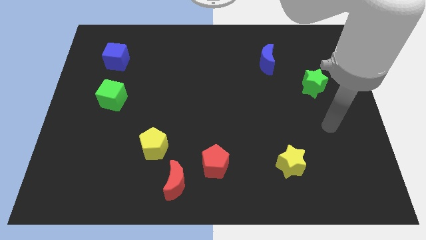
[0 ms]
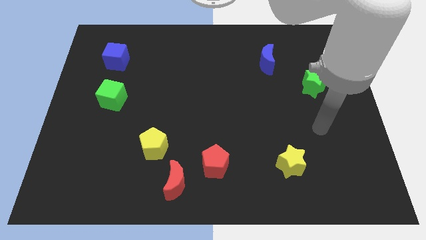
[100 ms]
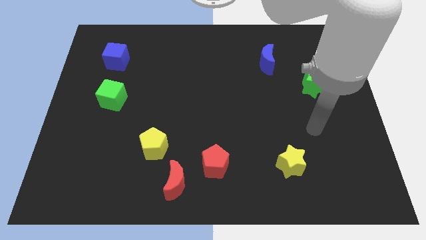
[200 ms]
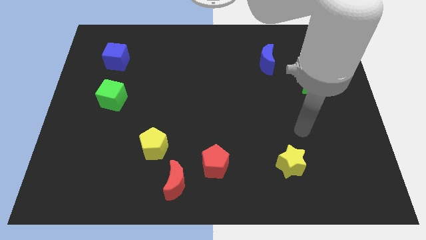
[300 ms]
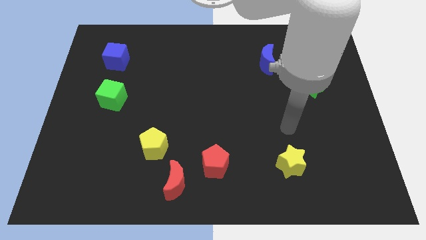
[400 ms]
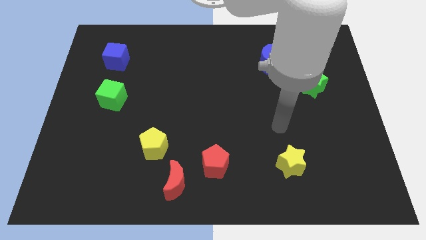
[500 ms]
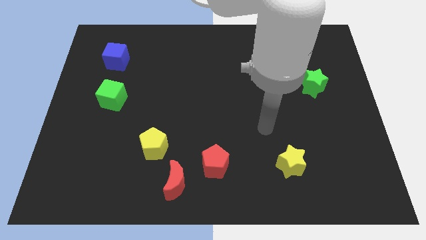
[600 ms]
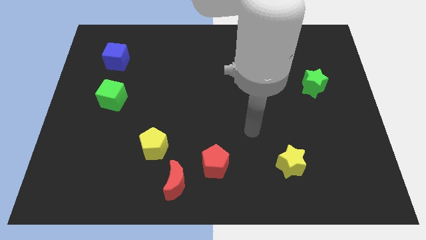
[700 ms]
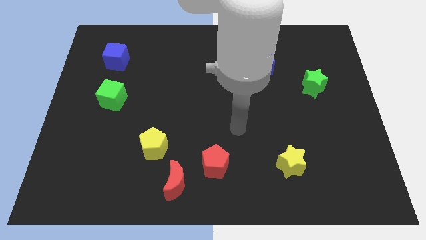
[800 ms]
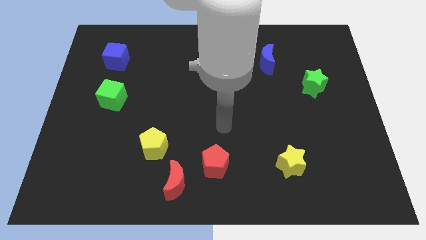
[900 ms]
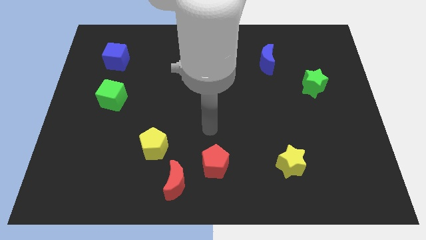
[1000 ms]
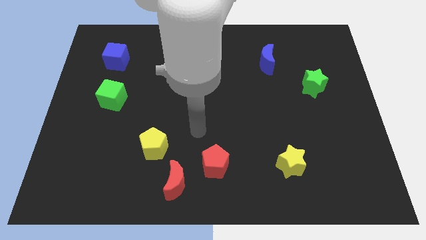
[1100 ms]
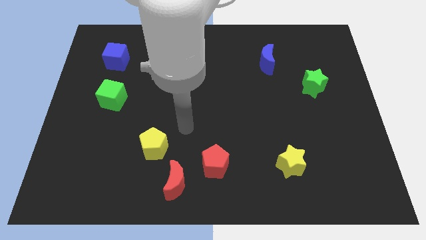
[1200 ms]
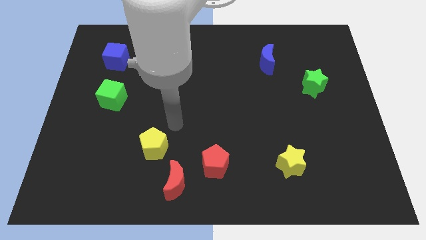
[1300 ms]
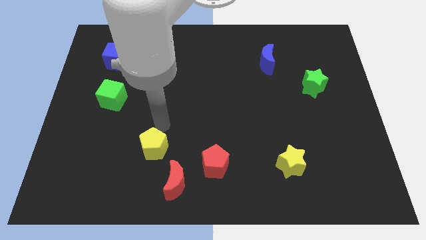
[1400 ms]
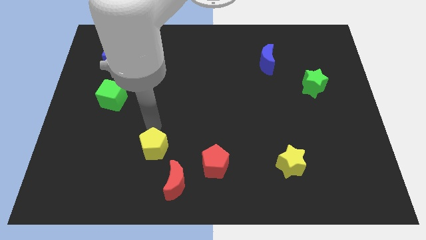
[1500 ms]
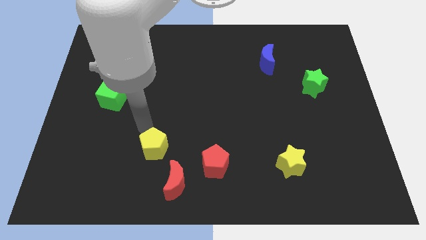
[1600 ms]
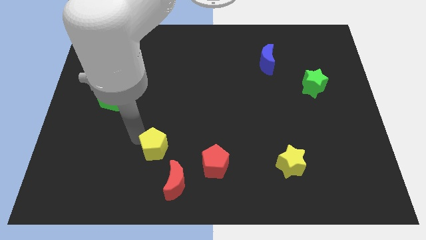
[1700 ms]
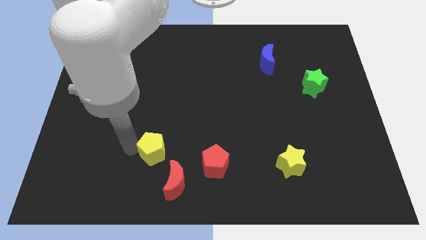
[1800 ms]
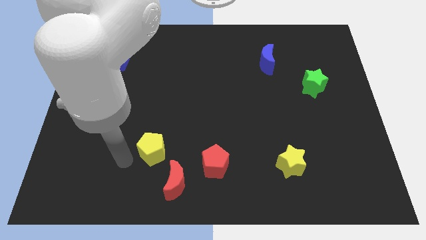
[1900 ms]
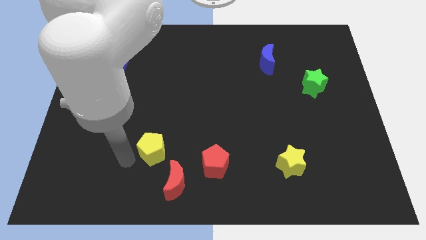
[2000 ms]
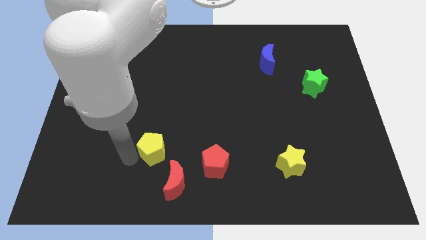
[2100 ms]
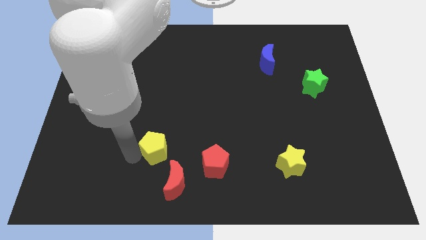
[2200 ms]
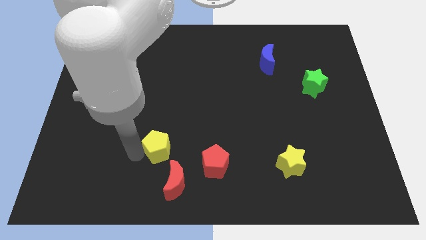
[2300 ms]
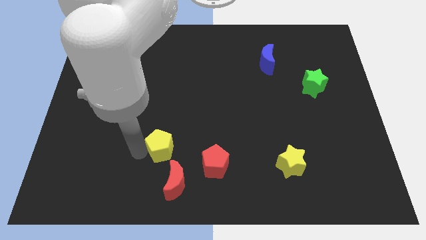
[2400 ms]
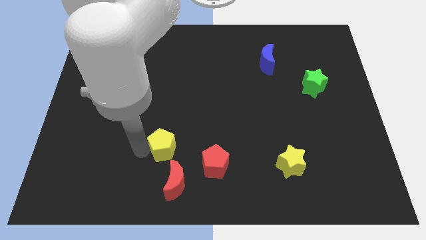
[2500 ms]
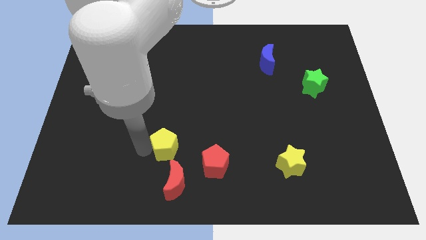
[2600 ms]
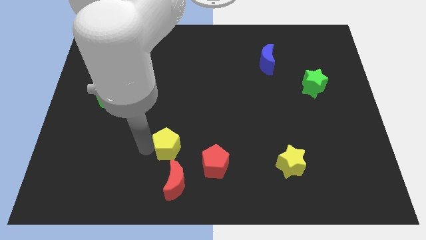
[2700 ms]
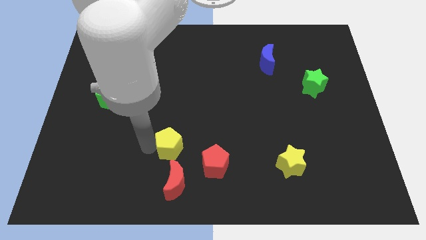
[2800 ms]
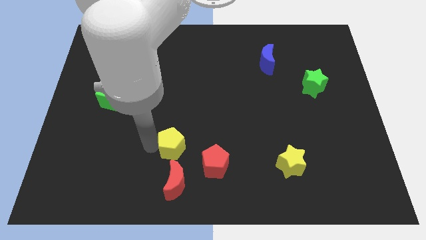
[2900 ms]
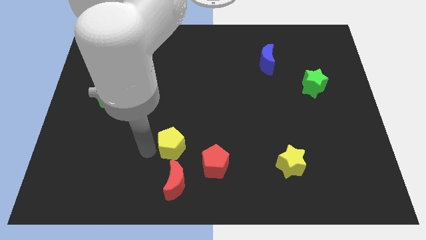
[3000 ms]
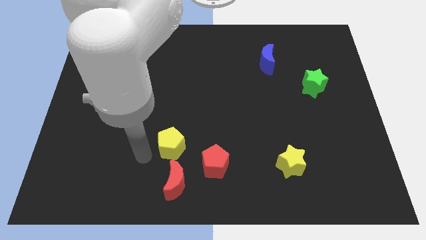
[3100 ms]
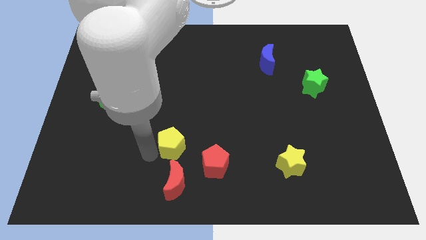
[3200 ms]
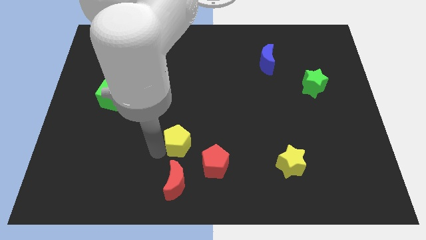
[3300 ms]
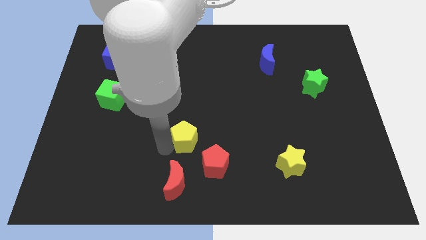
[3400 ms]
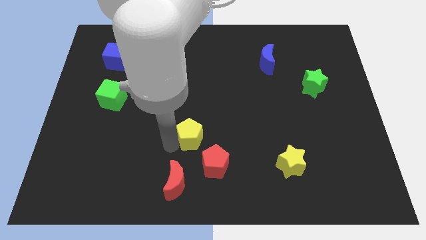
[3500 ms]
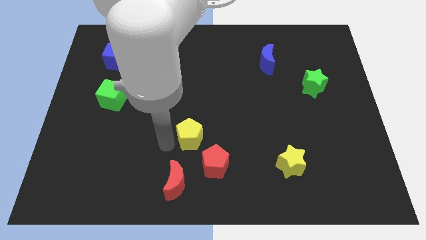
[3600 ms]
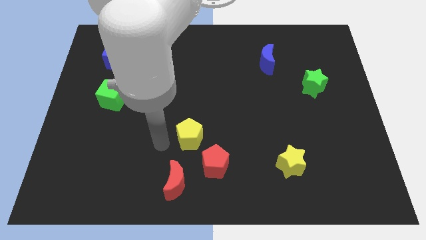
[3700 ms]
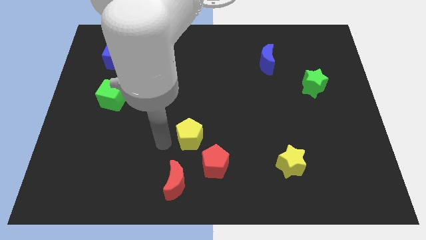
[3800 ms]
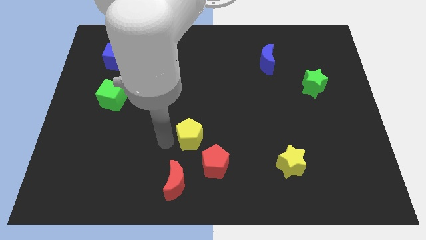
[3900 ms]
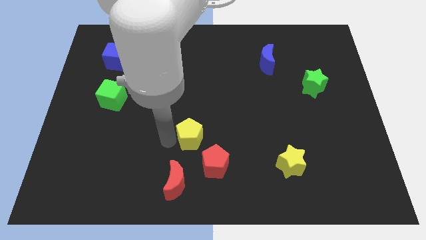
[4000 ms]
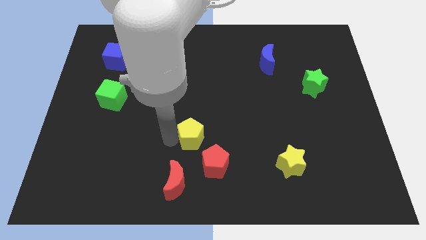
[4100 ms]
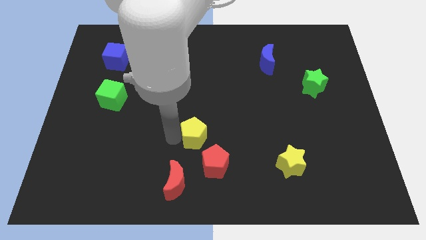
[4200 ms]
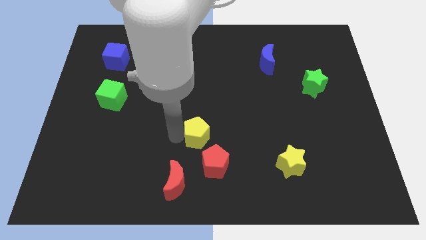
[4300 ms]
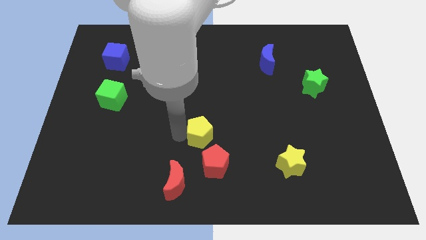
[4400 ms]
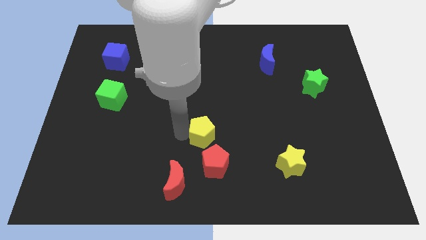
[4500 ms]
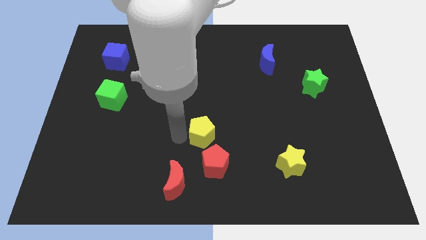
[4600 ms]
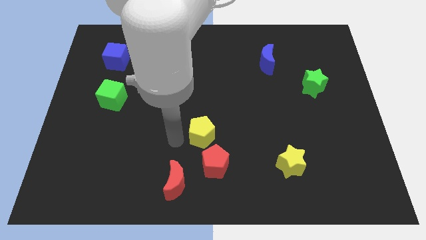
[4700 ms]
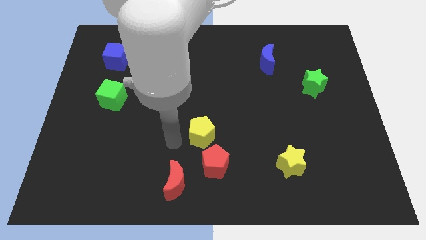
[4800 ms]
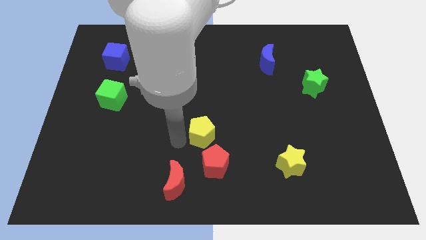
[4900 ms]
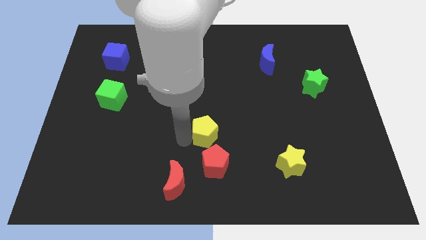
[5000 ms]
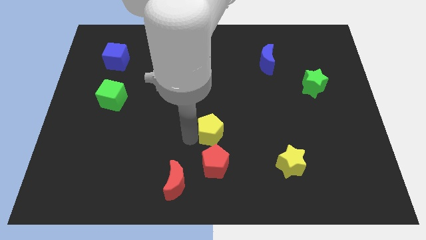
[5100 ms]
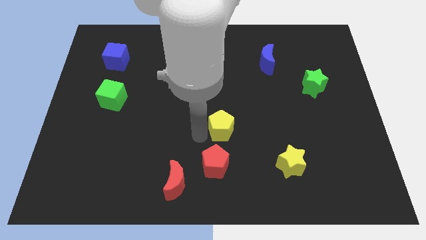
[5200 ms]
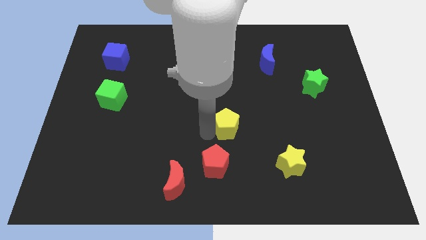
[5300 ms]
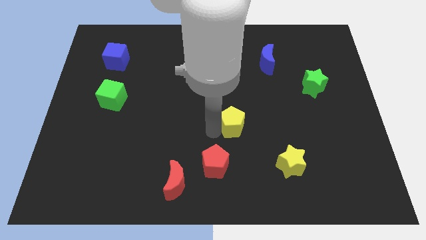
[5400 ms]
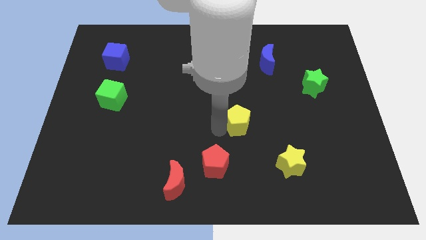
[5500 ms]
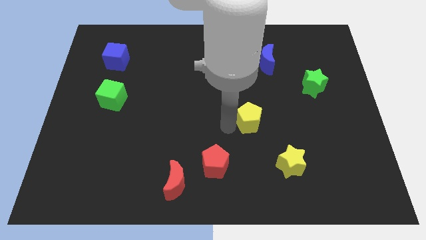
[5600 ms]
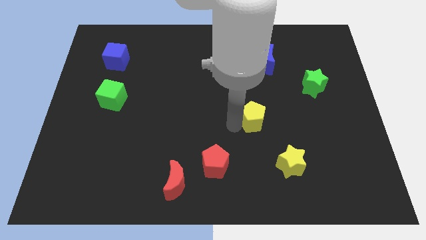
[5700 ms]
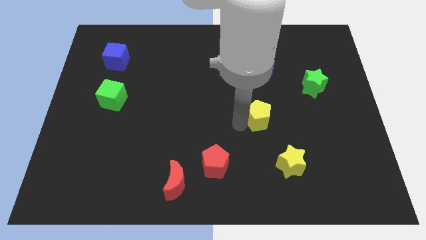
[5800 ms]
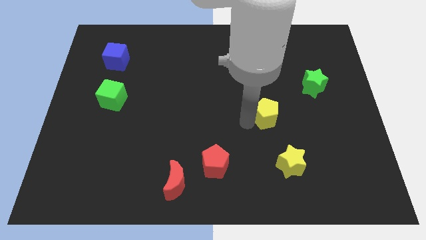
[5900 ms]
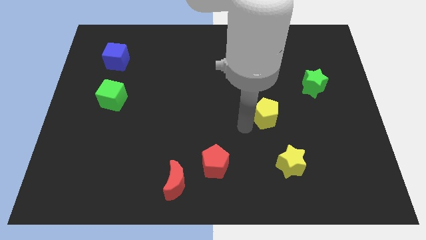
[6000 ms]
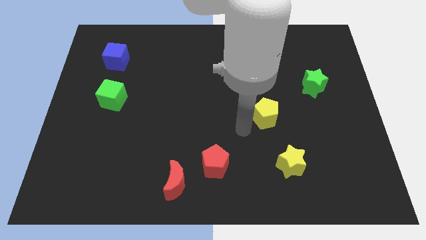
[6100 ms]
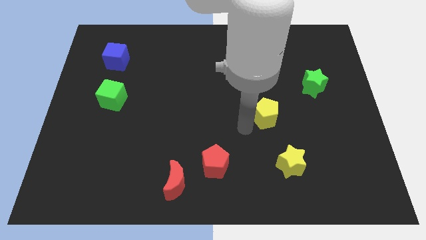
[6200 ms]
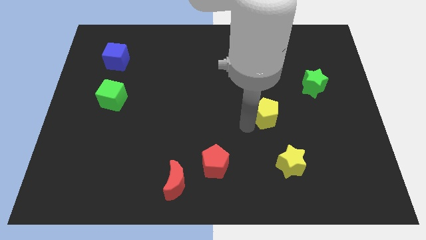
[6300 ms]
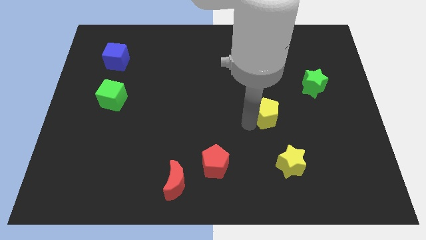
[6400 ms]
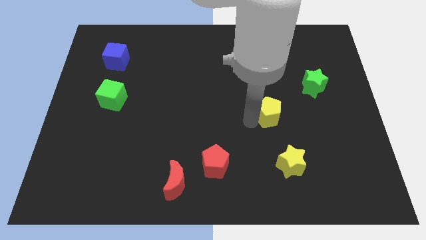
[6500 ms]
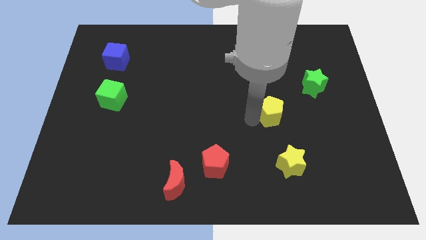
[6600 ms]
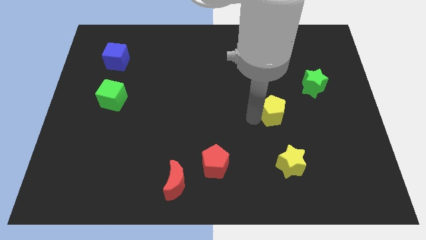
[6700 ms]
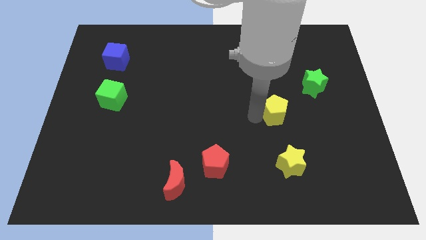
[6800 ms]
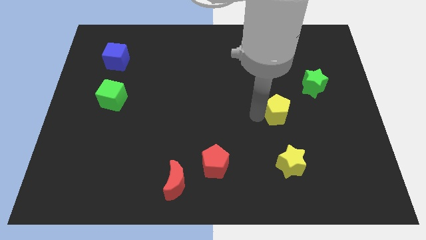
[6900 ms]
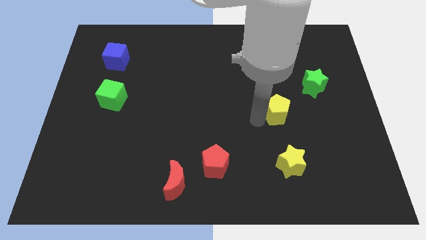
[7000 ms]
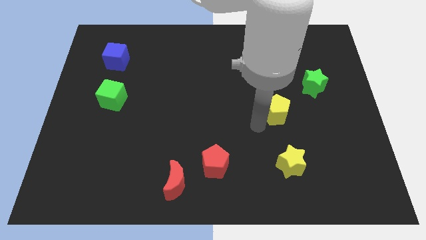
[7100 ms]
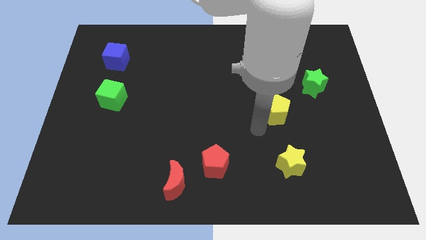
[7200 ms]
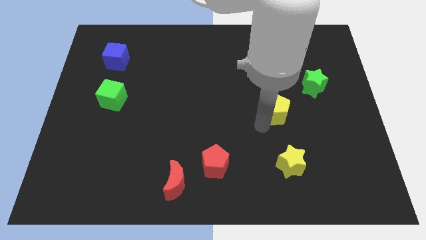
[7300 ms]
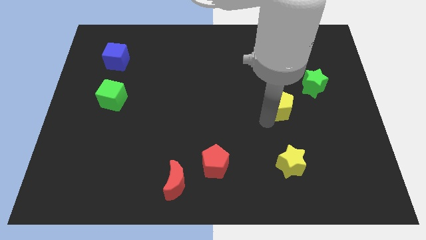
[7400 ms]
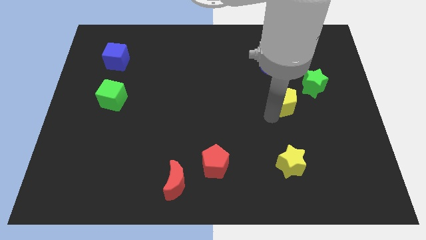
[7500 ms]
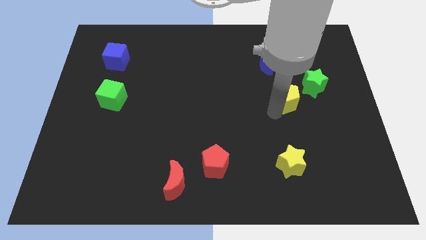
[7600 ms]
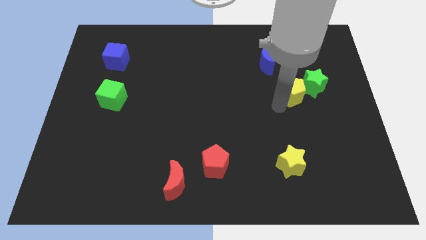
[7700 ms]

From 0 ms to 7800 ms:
slide the yellow pentagon close to the green star
